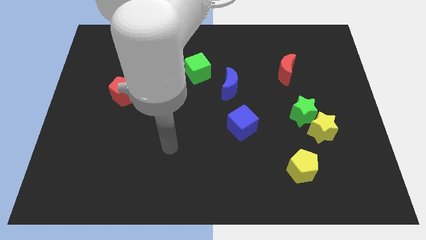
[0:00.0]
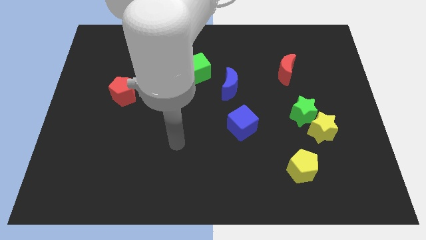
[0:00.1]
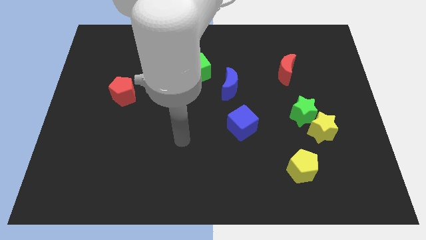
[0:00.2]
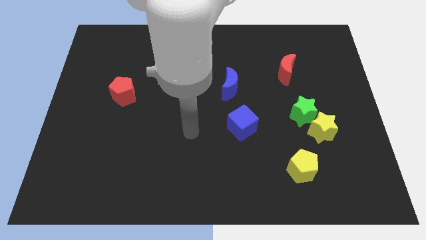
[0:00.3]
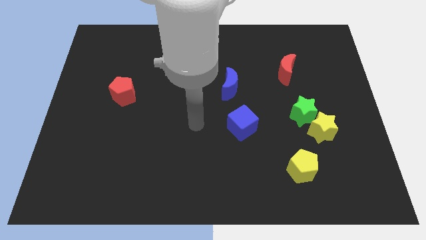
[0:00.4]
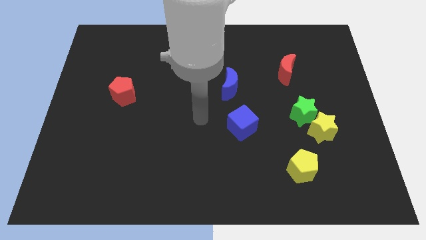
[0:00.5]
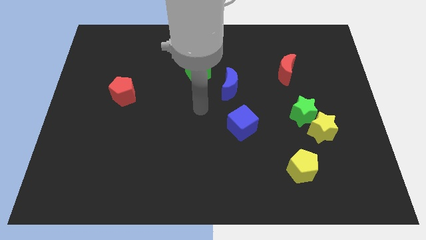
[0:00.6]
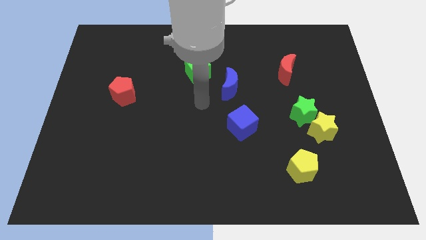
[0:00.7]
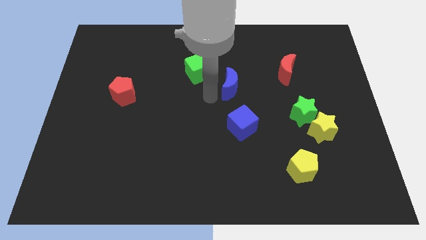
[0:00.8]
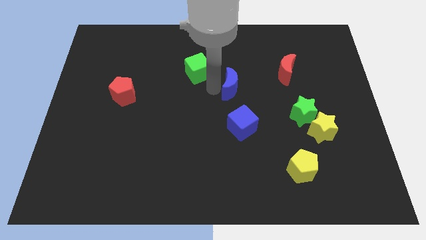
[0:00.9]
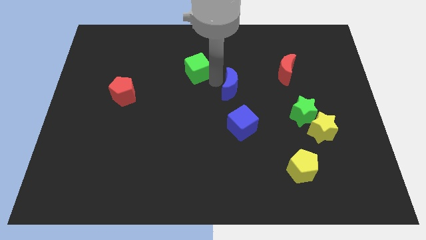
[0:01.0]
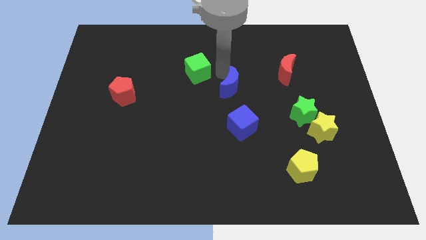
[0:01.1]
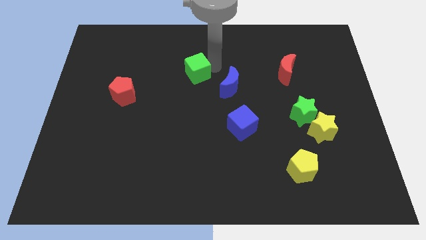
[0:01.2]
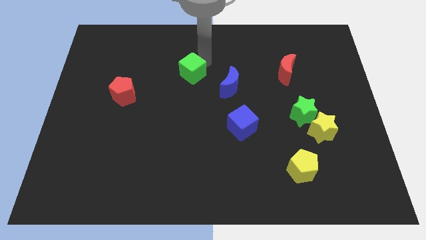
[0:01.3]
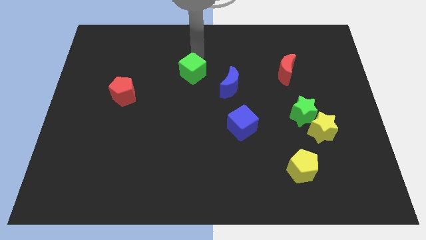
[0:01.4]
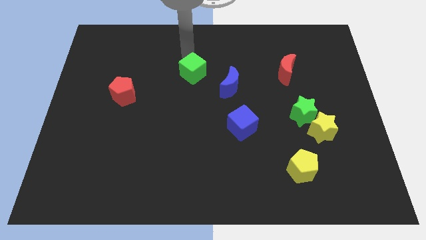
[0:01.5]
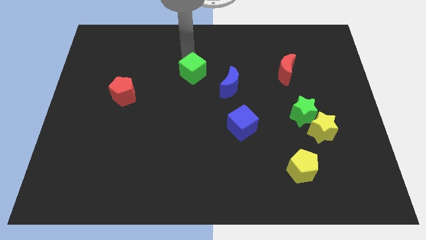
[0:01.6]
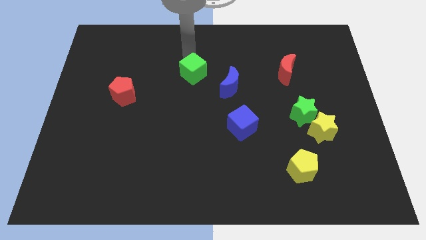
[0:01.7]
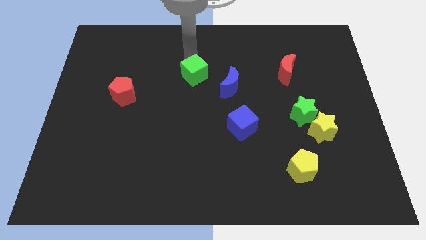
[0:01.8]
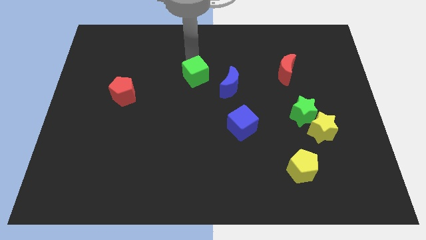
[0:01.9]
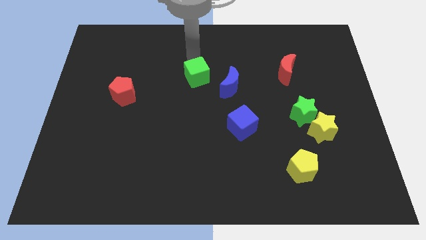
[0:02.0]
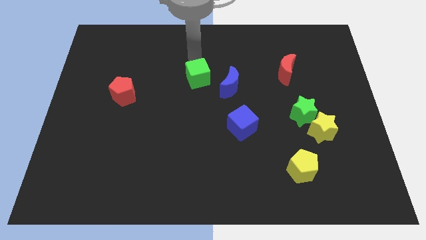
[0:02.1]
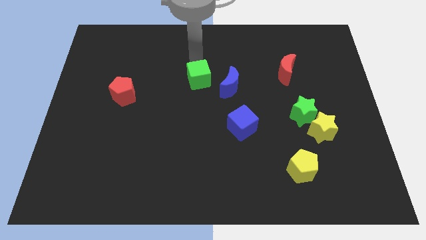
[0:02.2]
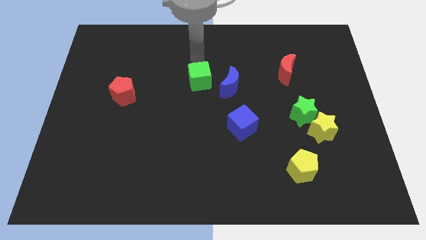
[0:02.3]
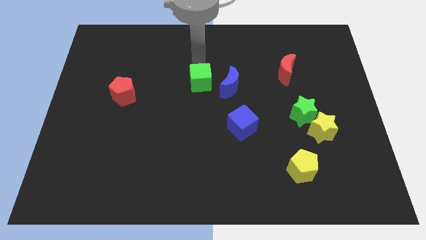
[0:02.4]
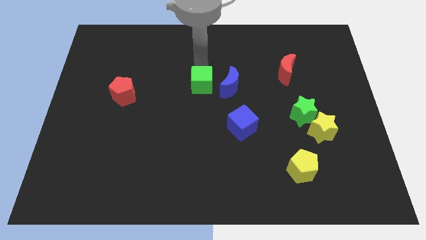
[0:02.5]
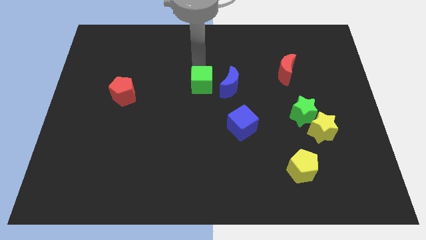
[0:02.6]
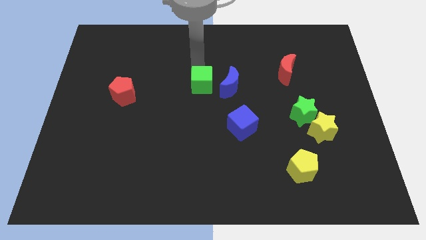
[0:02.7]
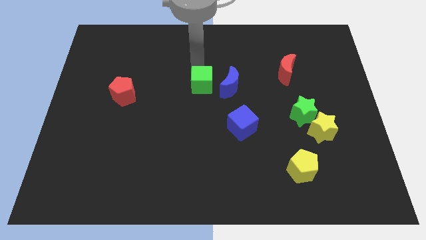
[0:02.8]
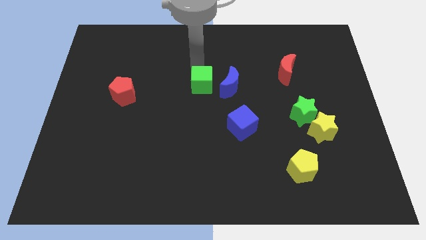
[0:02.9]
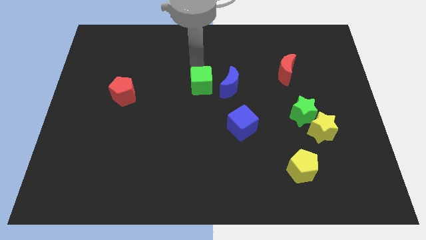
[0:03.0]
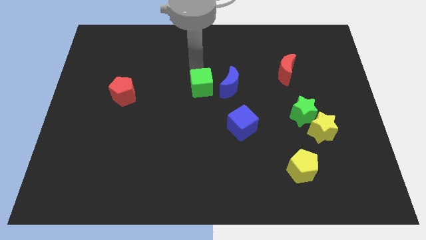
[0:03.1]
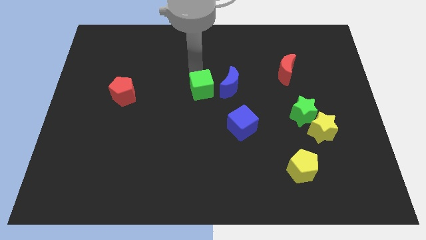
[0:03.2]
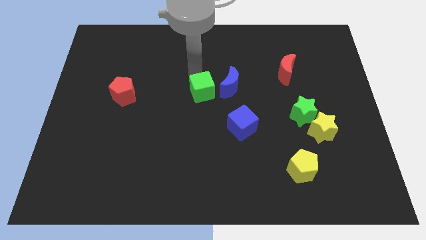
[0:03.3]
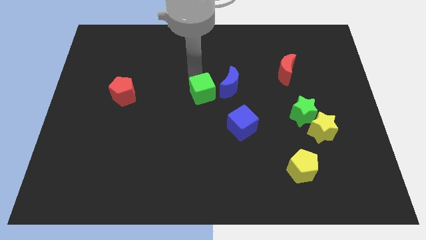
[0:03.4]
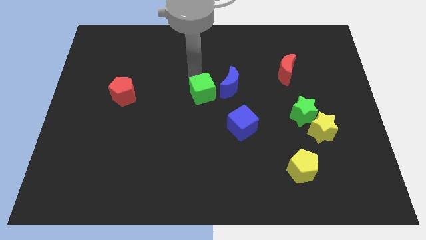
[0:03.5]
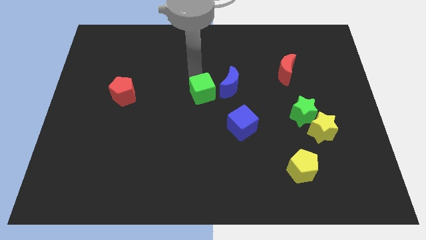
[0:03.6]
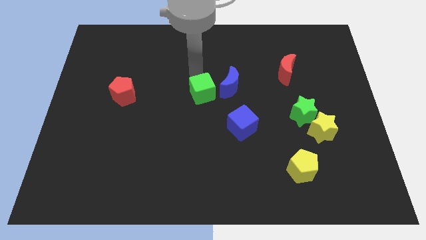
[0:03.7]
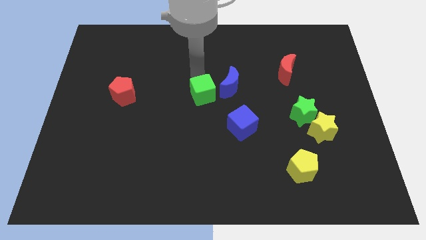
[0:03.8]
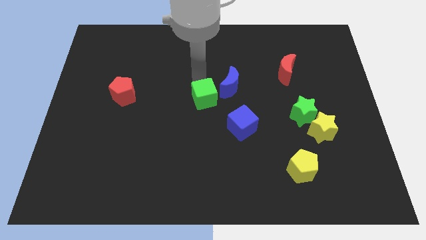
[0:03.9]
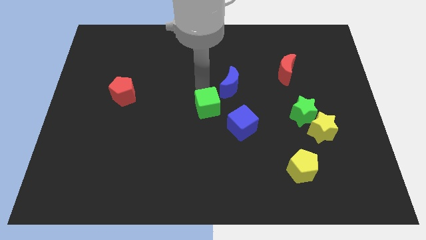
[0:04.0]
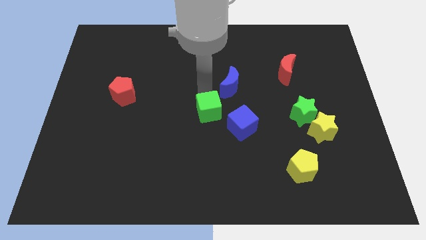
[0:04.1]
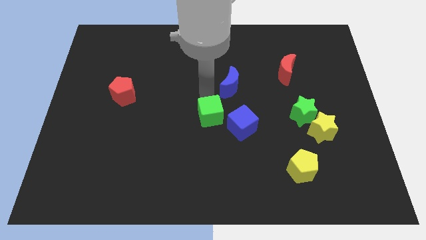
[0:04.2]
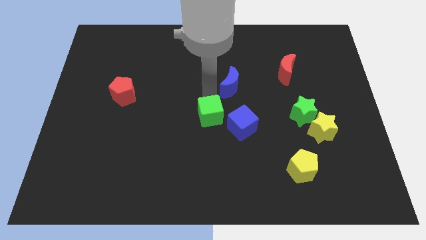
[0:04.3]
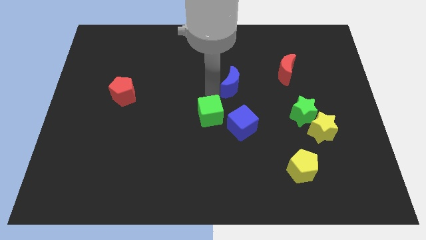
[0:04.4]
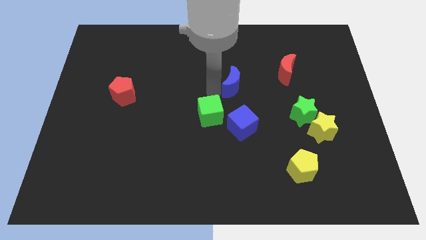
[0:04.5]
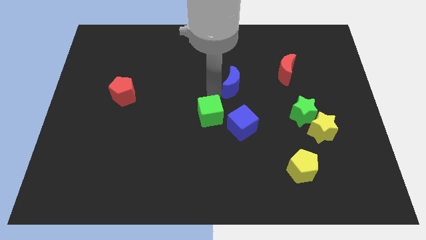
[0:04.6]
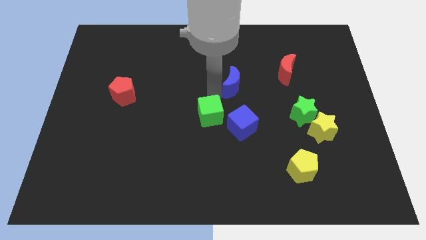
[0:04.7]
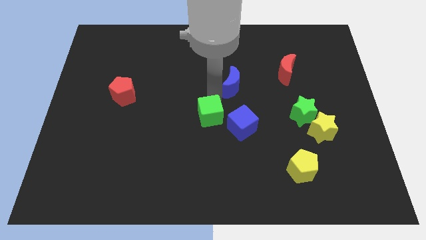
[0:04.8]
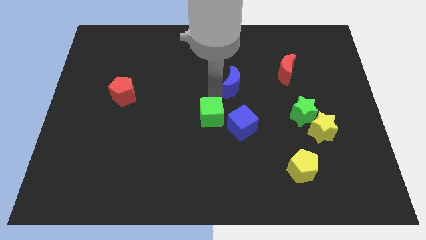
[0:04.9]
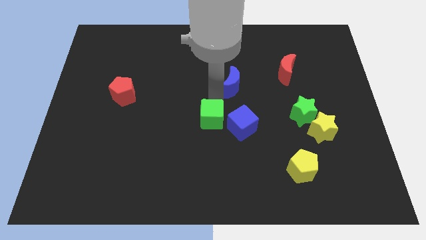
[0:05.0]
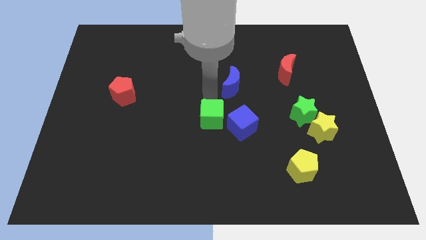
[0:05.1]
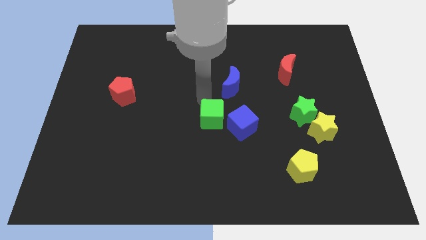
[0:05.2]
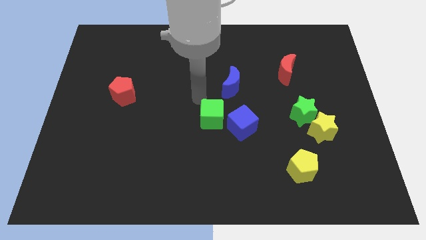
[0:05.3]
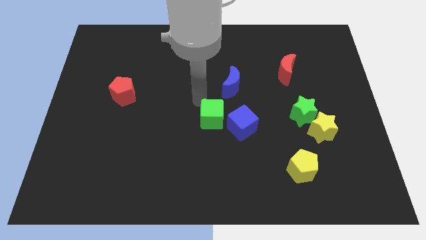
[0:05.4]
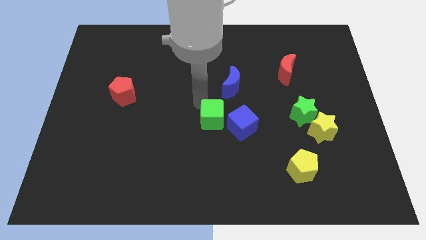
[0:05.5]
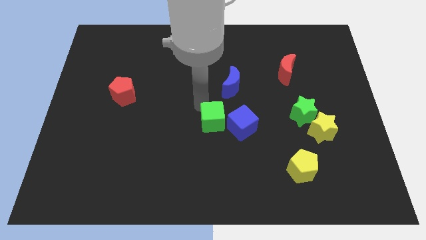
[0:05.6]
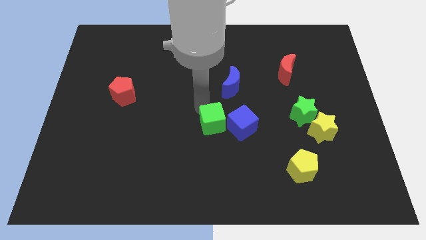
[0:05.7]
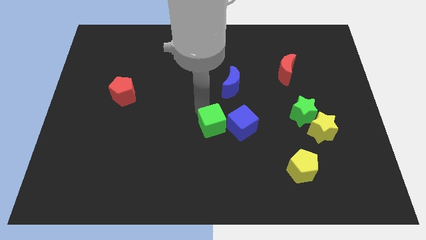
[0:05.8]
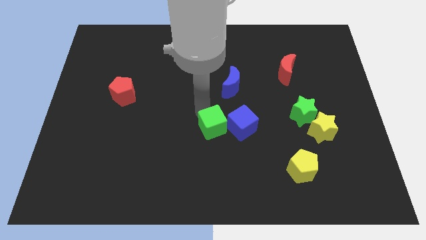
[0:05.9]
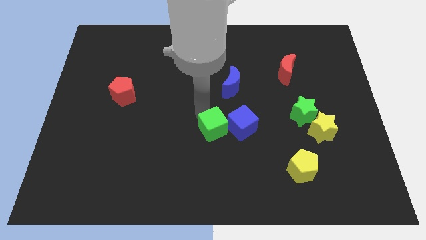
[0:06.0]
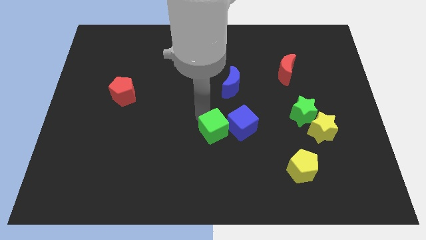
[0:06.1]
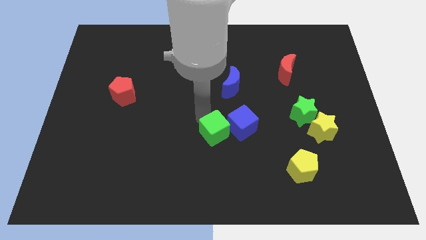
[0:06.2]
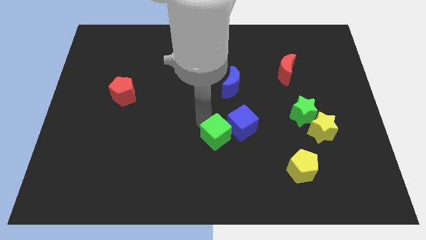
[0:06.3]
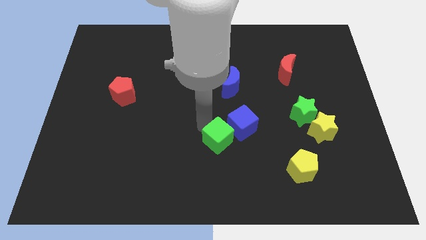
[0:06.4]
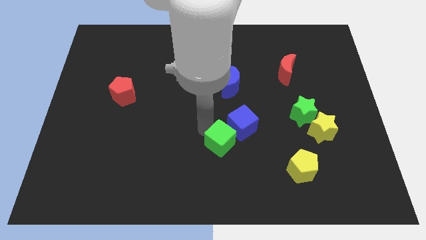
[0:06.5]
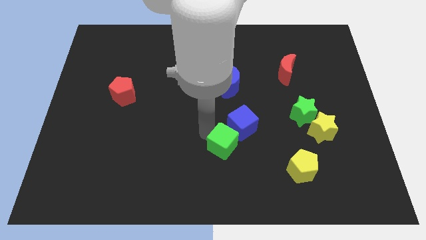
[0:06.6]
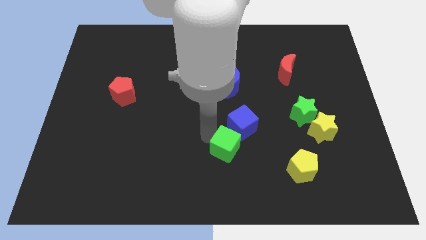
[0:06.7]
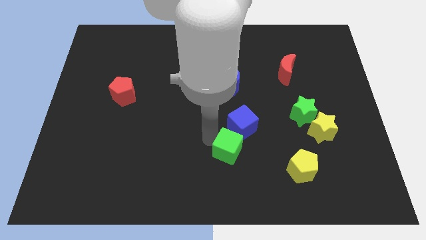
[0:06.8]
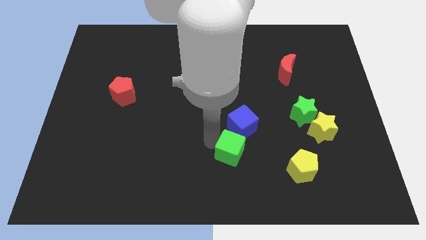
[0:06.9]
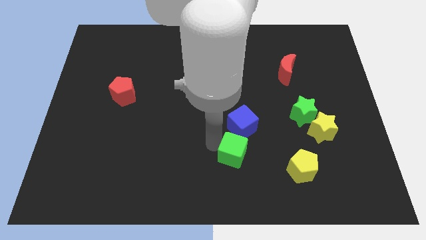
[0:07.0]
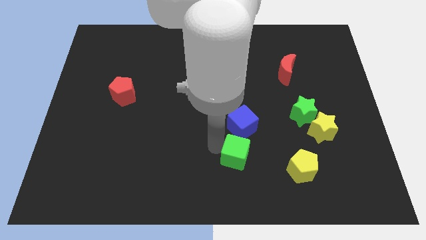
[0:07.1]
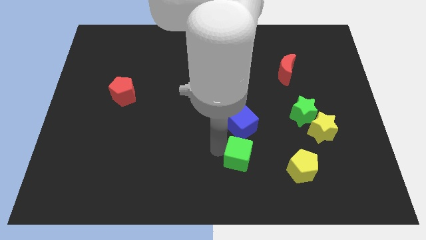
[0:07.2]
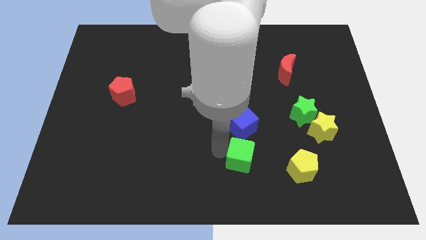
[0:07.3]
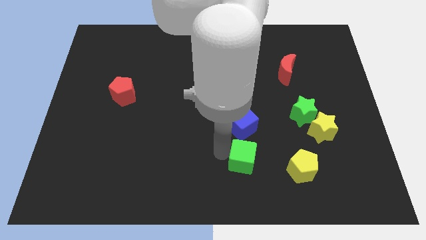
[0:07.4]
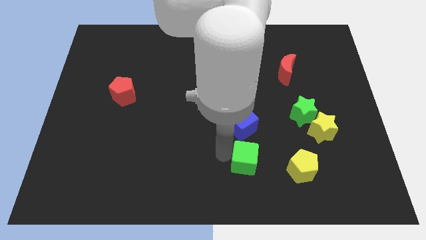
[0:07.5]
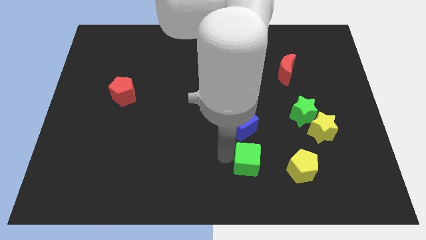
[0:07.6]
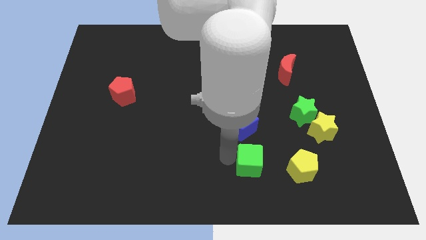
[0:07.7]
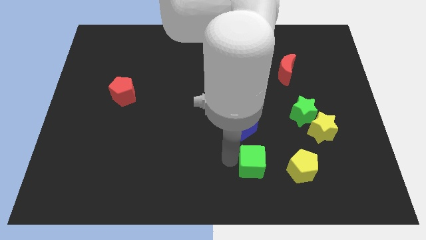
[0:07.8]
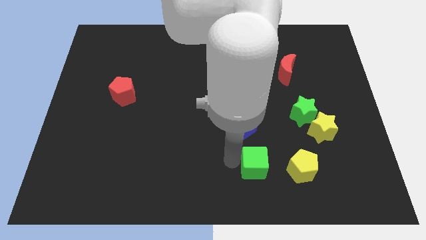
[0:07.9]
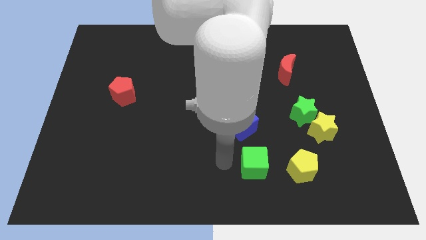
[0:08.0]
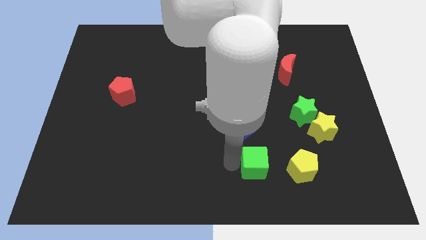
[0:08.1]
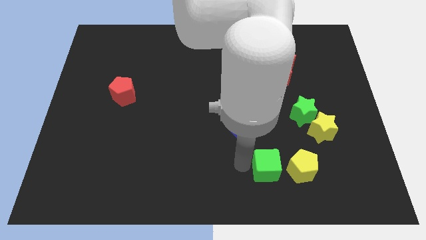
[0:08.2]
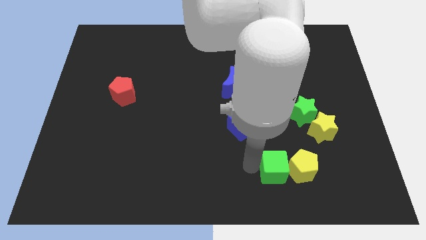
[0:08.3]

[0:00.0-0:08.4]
put the green cube next to the yellow pentagon

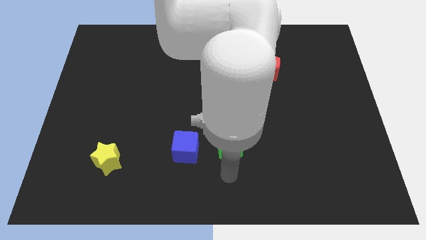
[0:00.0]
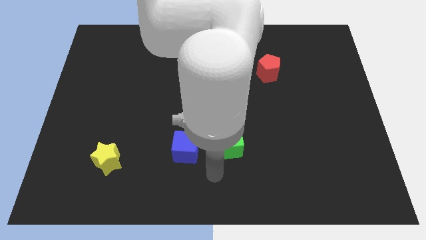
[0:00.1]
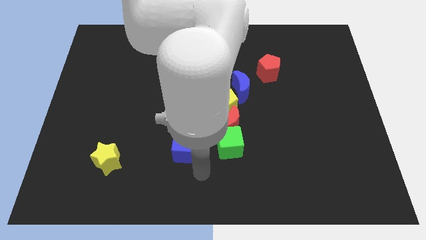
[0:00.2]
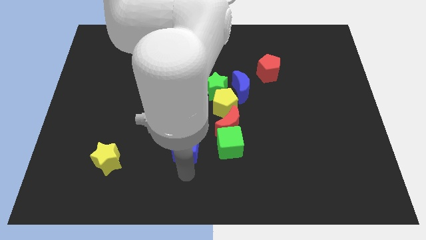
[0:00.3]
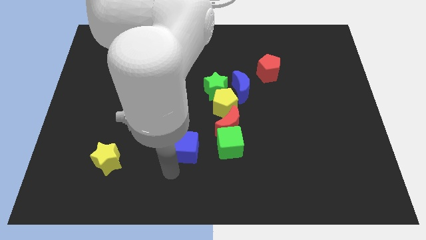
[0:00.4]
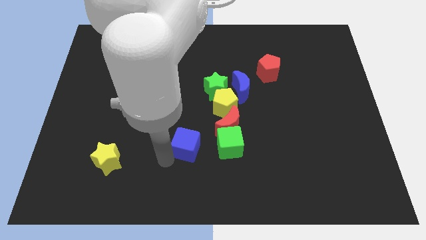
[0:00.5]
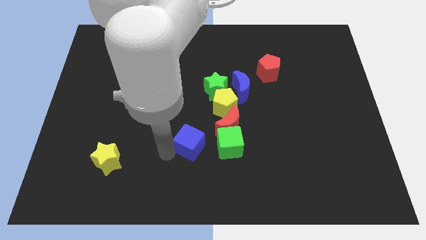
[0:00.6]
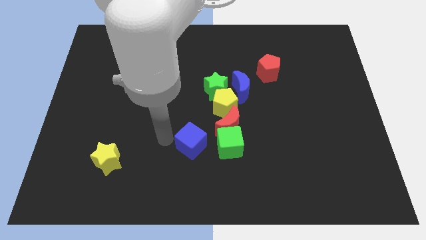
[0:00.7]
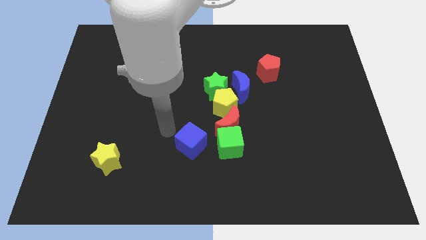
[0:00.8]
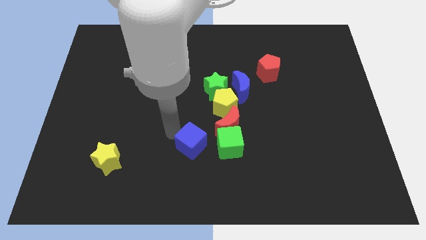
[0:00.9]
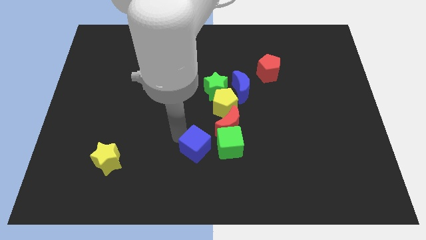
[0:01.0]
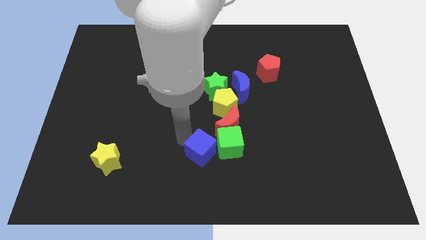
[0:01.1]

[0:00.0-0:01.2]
move the blue cube towards the green cube
